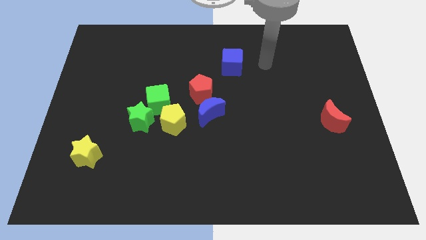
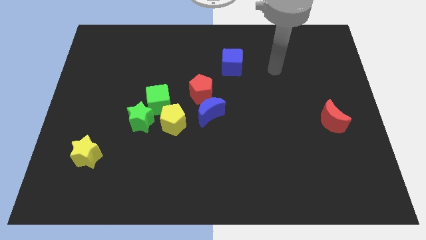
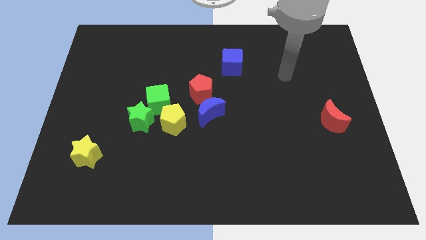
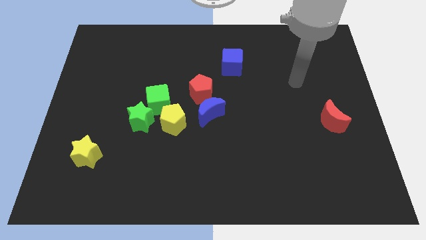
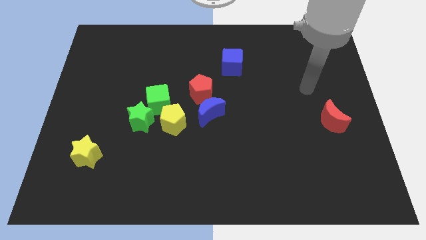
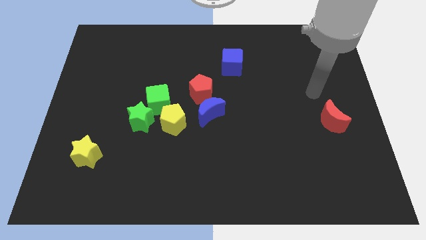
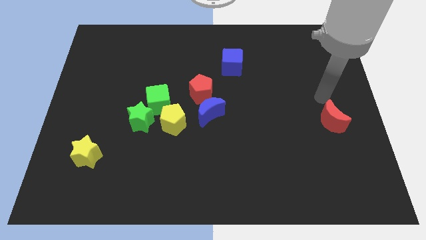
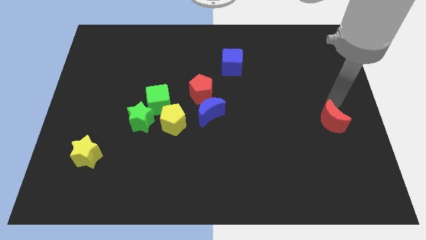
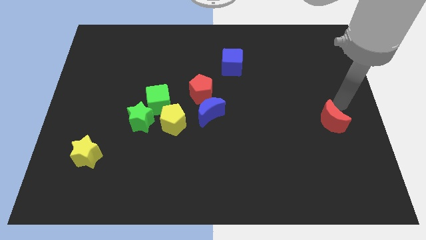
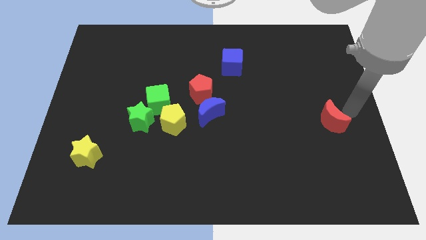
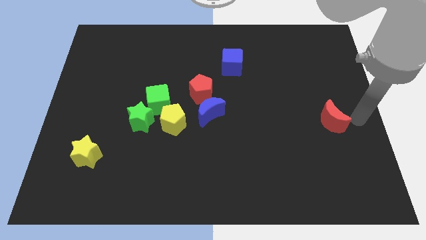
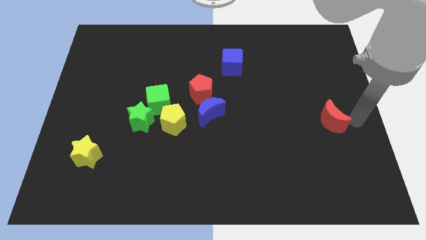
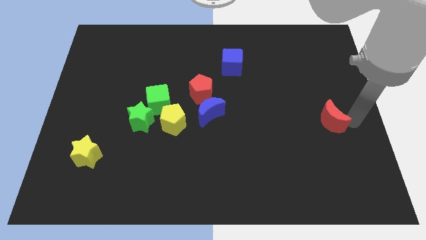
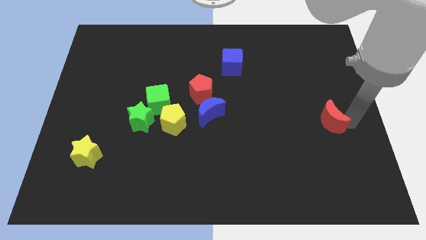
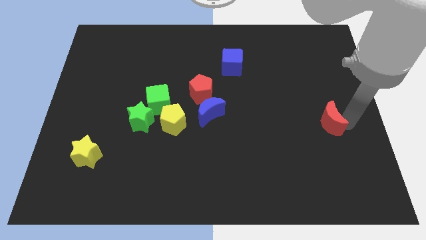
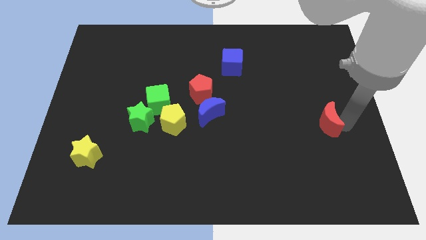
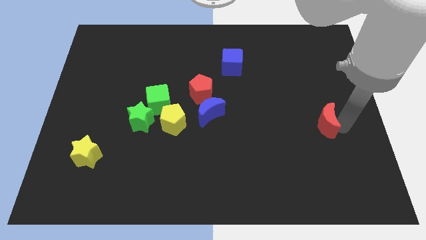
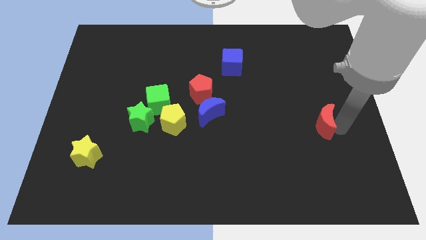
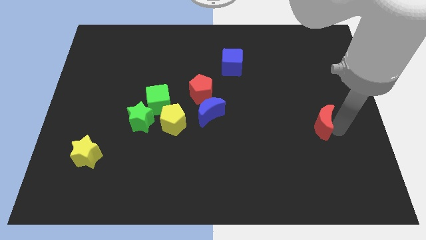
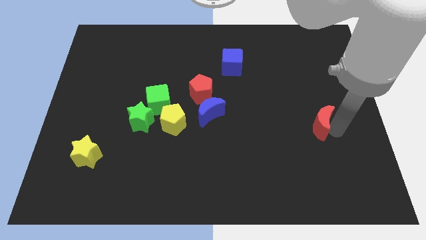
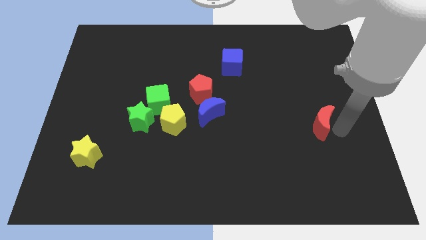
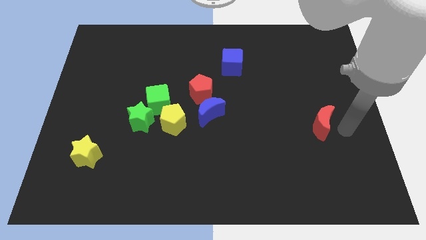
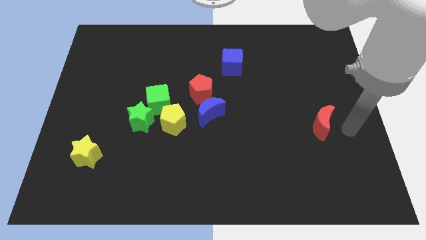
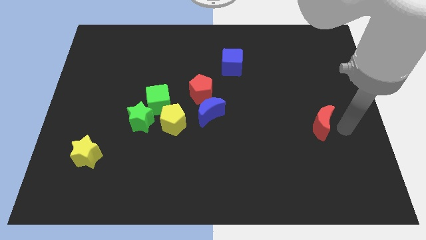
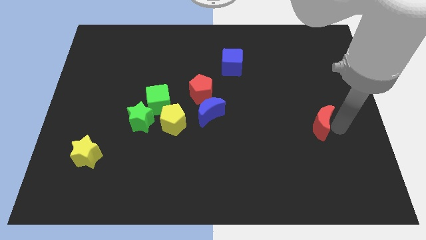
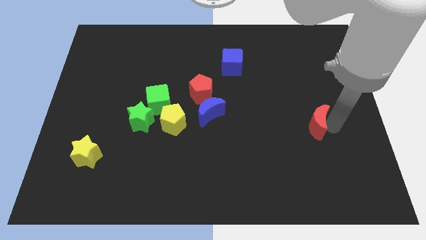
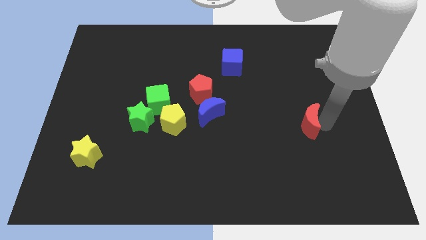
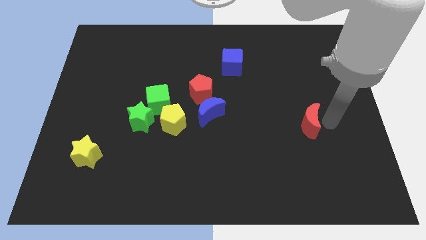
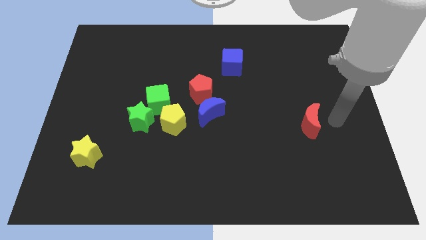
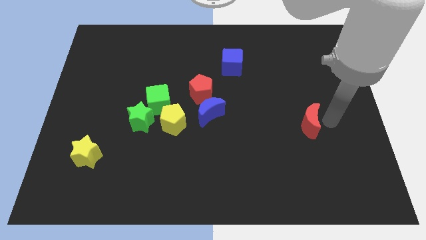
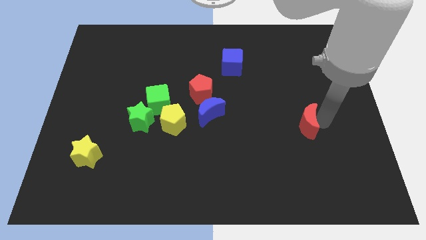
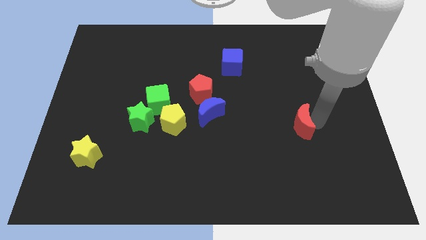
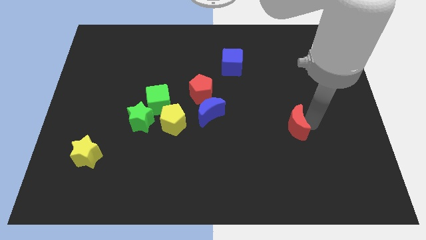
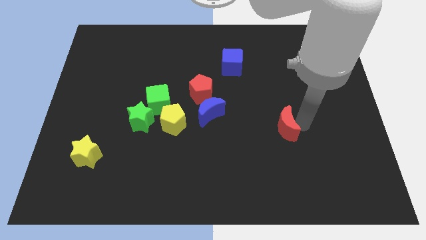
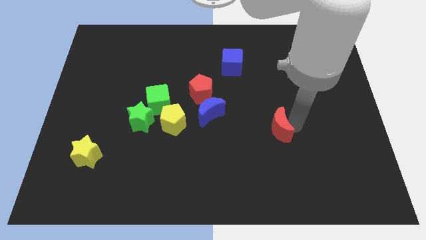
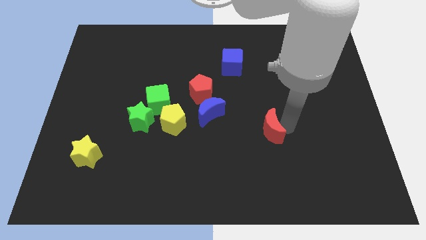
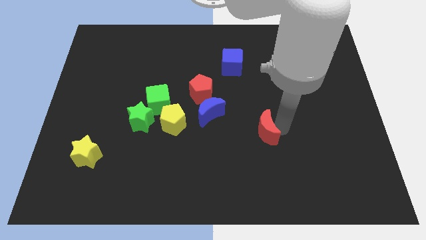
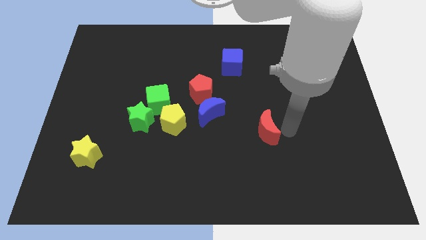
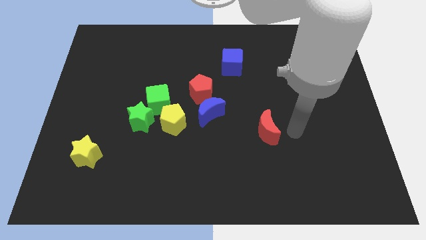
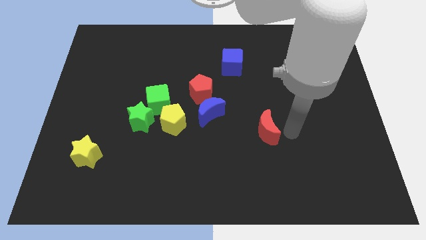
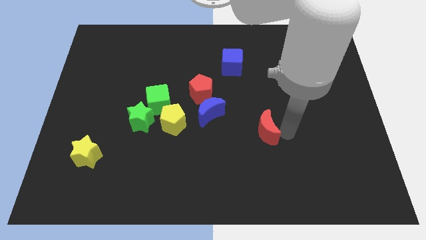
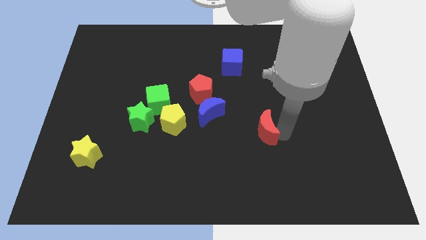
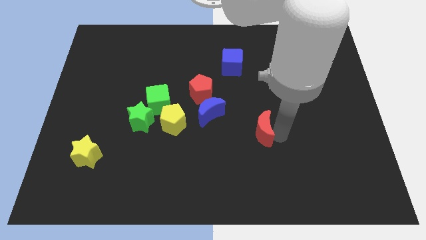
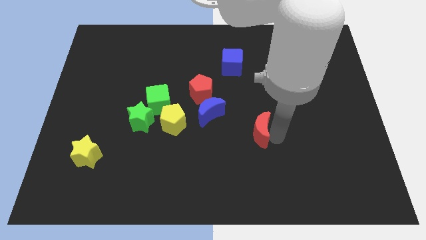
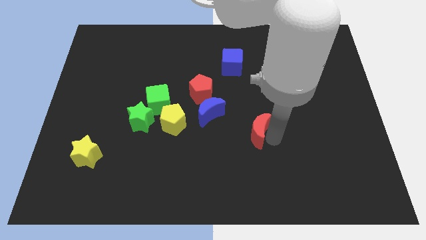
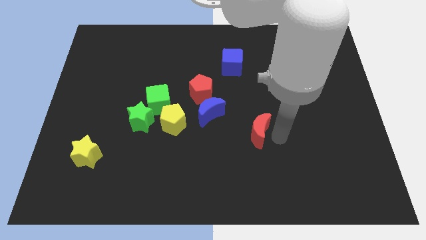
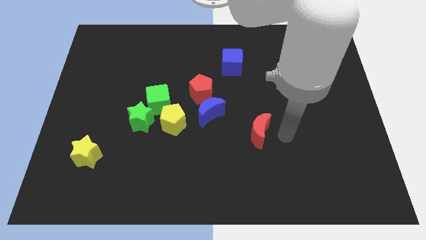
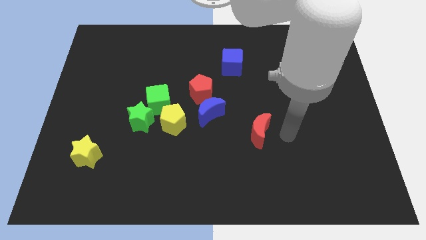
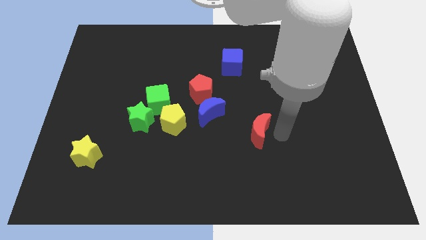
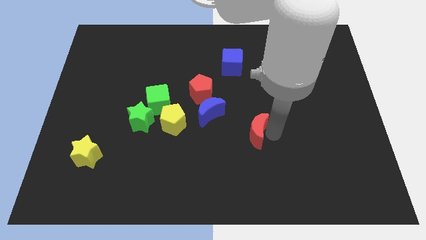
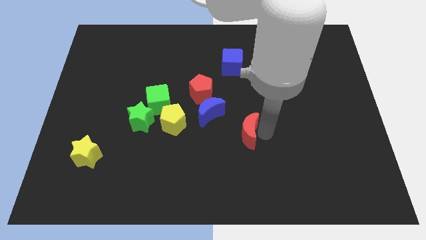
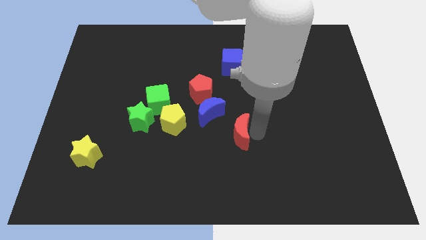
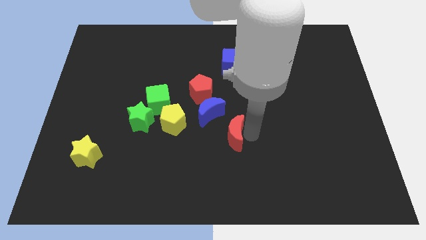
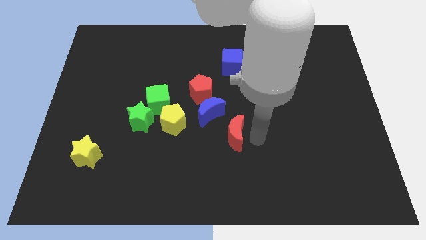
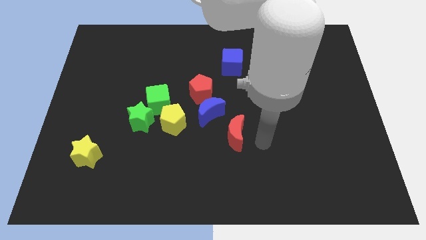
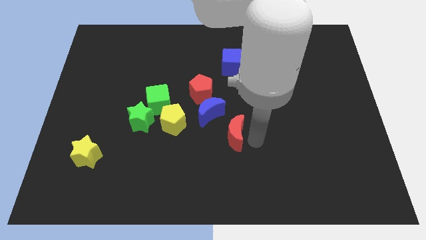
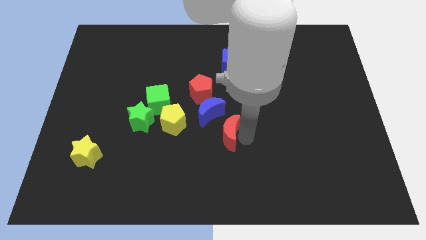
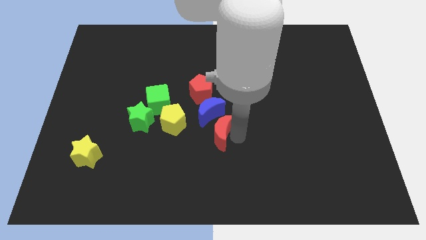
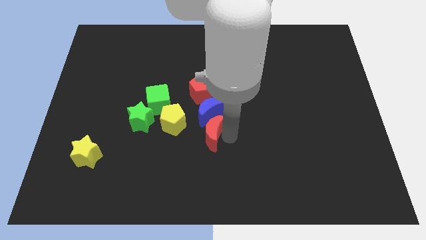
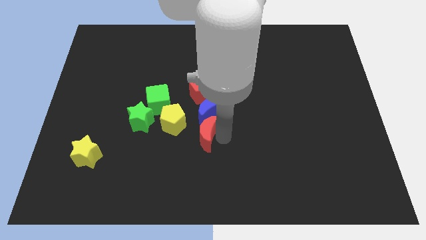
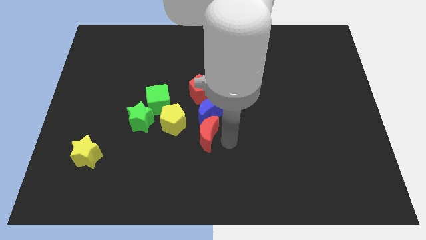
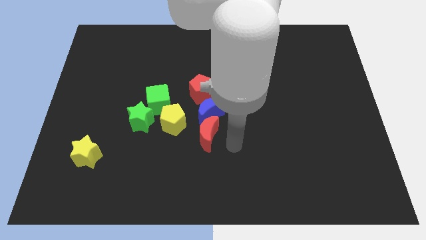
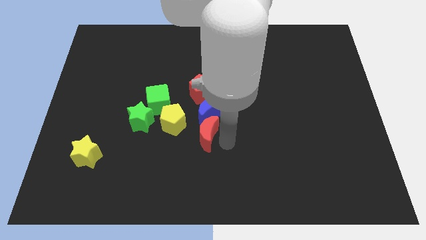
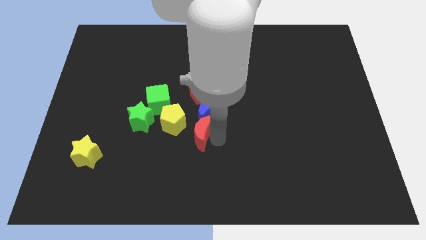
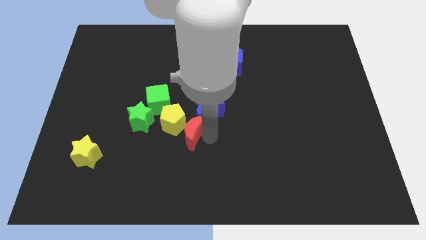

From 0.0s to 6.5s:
put the red moon close to the yellow pentagon
